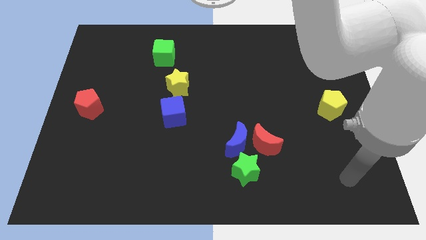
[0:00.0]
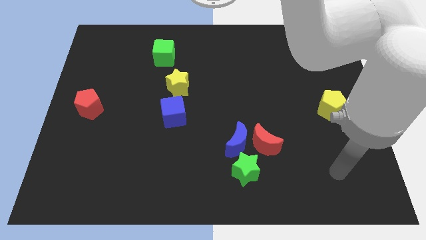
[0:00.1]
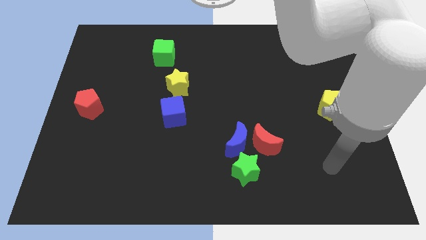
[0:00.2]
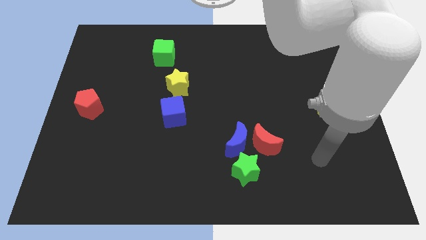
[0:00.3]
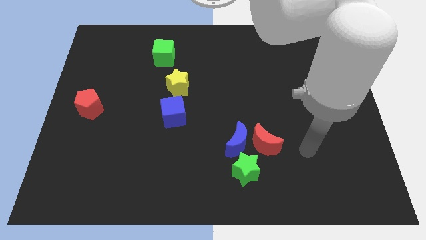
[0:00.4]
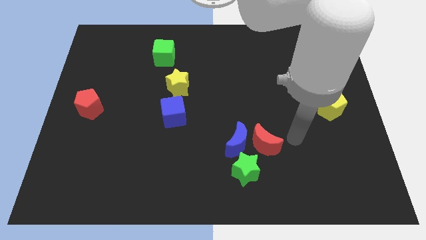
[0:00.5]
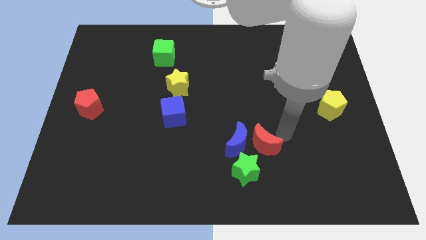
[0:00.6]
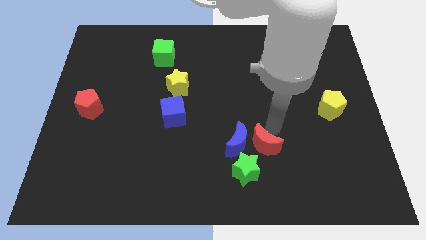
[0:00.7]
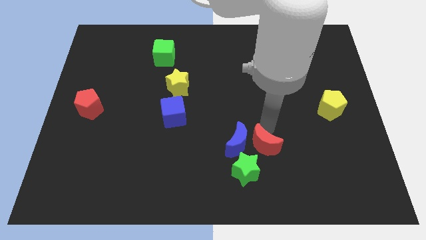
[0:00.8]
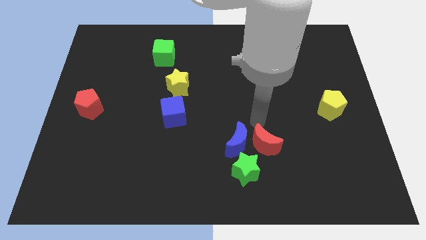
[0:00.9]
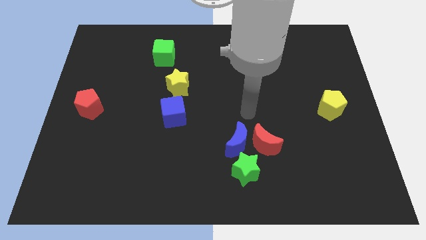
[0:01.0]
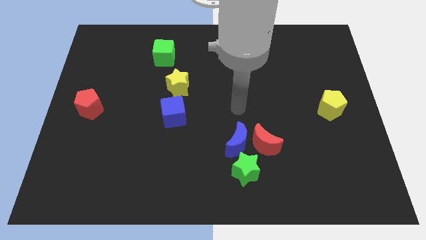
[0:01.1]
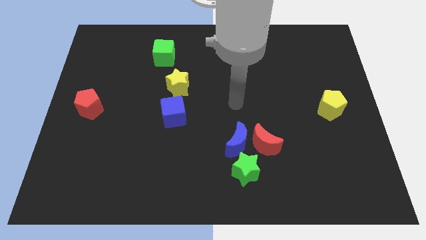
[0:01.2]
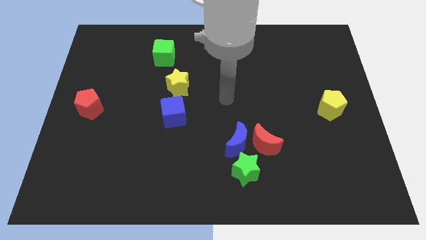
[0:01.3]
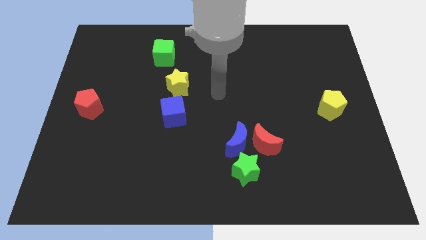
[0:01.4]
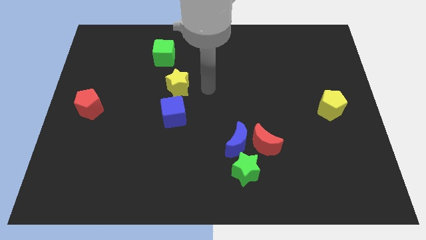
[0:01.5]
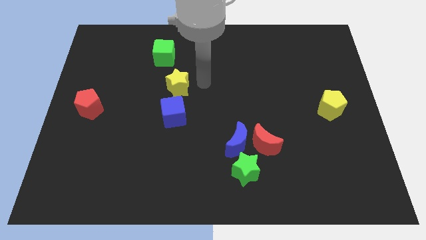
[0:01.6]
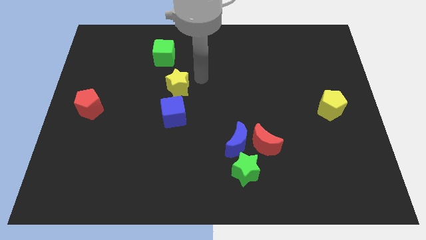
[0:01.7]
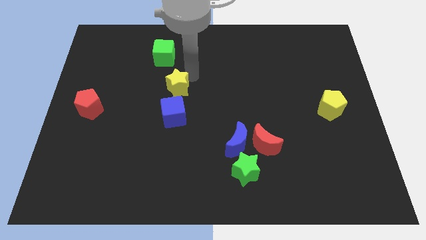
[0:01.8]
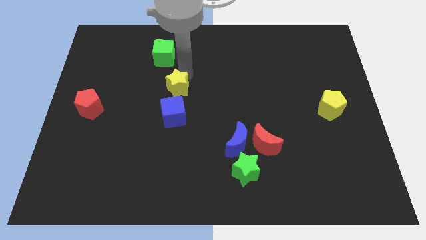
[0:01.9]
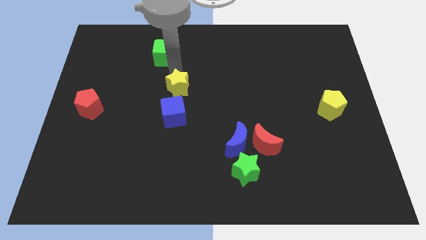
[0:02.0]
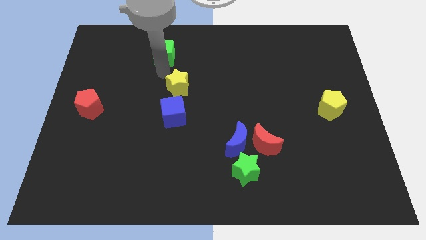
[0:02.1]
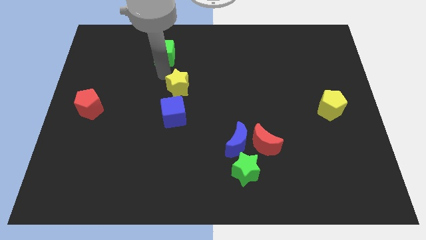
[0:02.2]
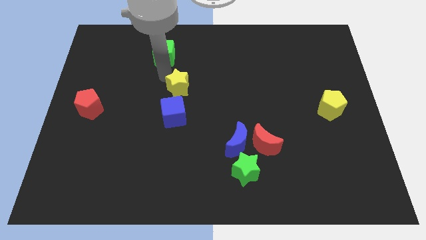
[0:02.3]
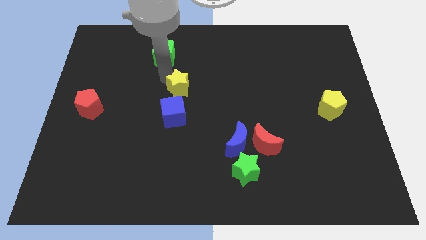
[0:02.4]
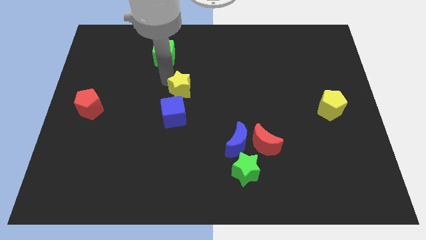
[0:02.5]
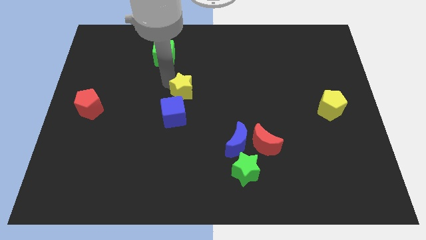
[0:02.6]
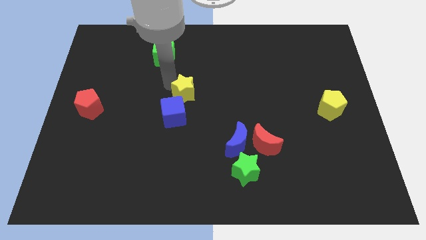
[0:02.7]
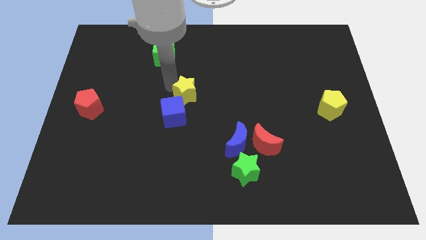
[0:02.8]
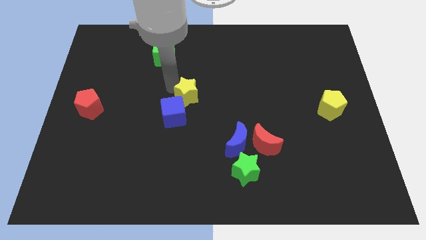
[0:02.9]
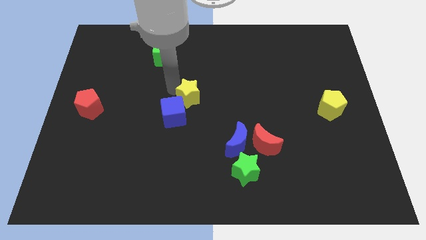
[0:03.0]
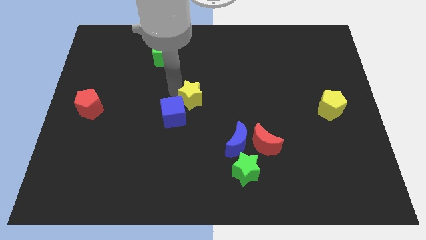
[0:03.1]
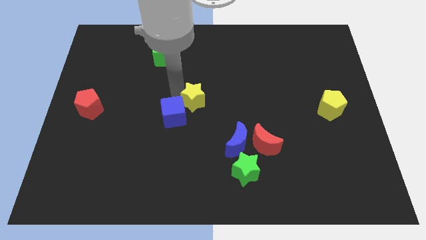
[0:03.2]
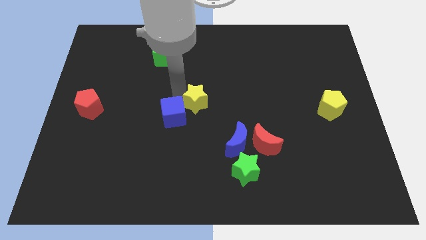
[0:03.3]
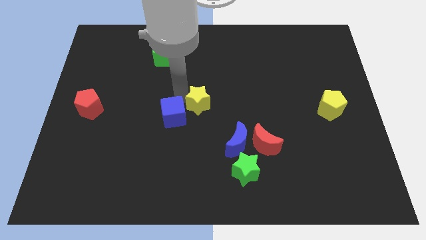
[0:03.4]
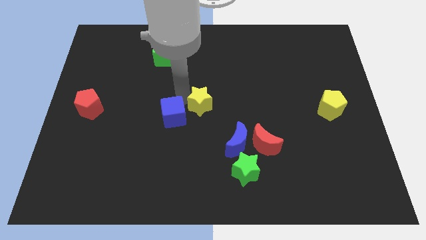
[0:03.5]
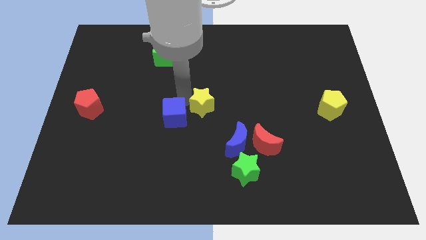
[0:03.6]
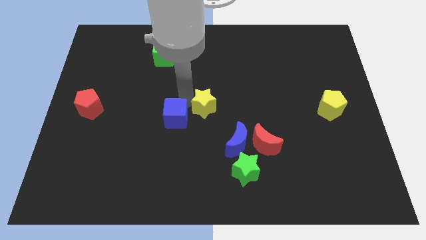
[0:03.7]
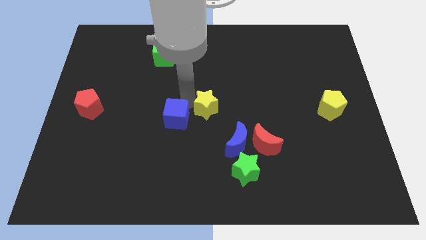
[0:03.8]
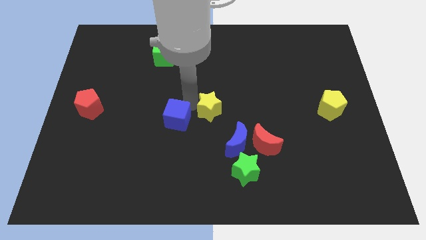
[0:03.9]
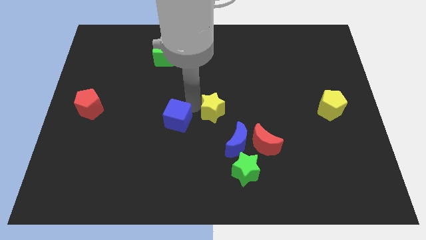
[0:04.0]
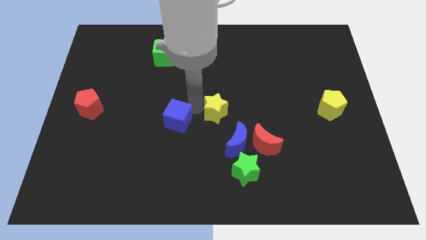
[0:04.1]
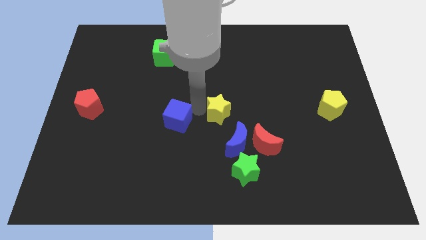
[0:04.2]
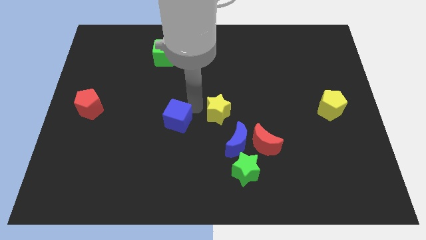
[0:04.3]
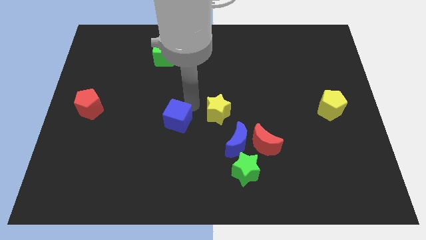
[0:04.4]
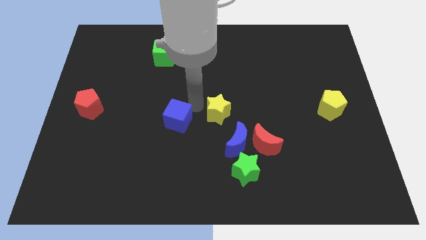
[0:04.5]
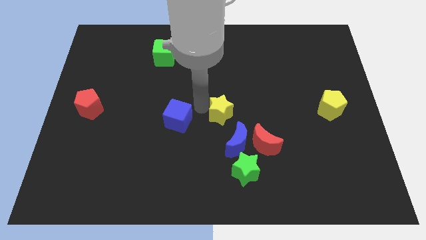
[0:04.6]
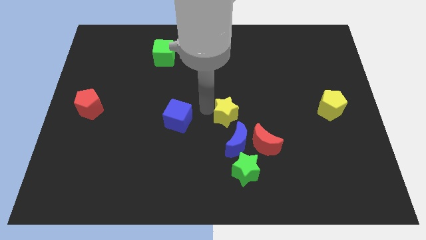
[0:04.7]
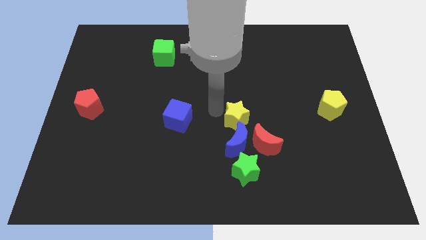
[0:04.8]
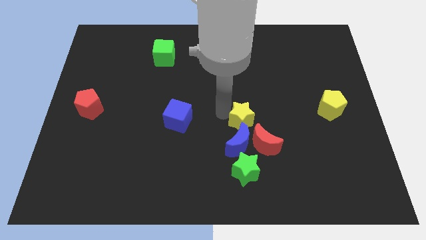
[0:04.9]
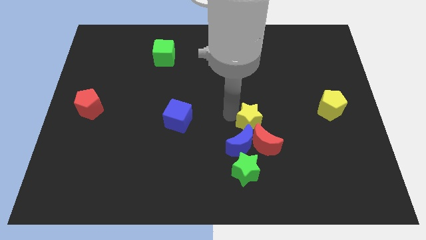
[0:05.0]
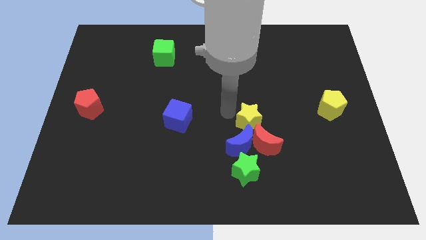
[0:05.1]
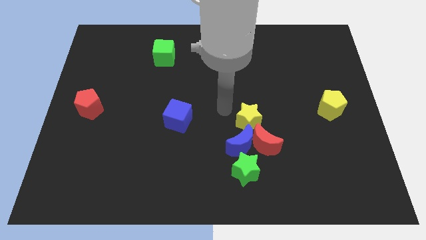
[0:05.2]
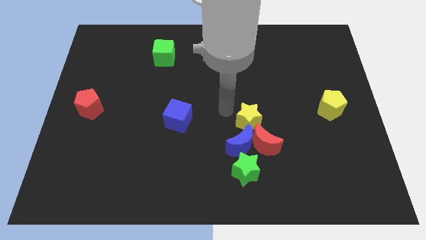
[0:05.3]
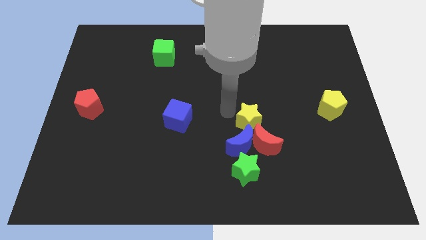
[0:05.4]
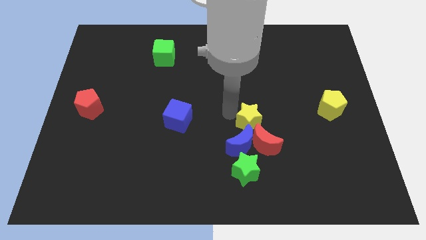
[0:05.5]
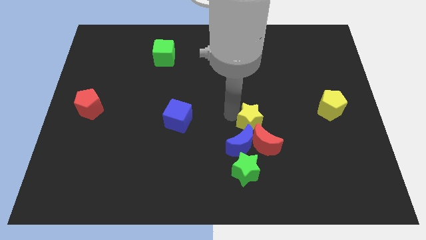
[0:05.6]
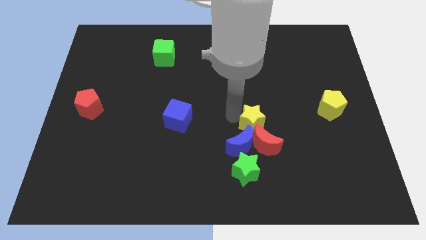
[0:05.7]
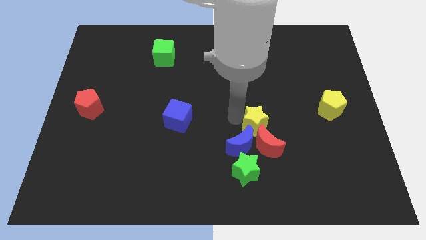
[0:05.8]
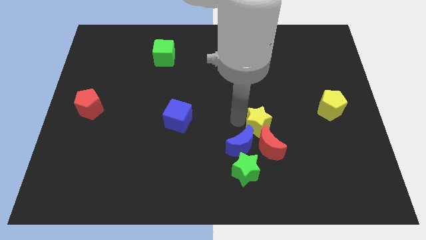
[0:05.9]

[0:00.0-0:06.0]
move the yellow star down and right diagonally

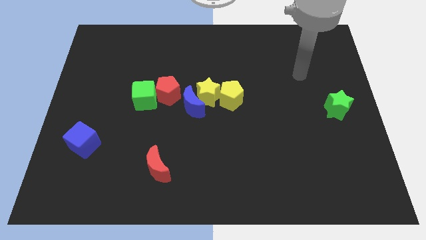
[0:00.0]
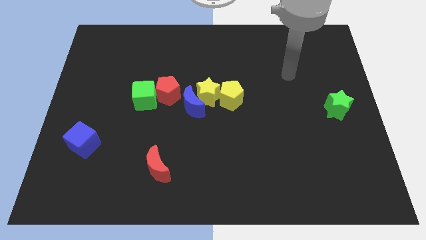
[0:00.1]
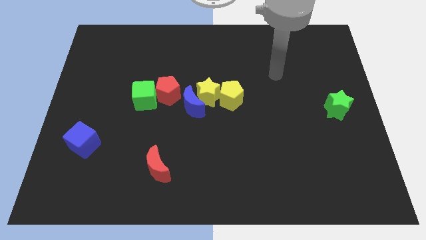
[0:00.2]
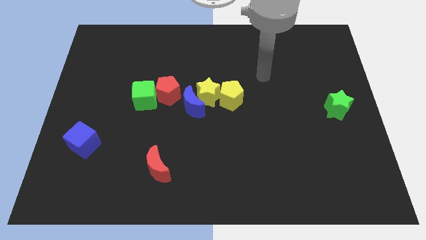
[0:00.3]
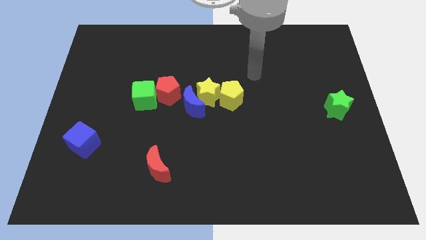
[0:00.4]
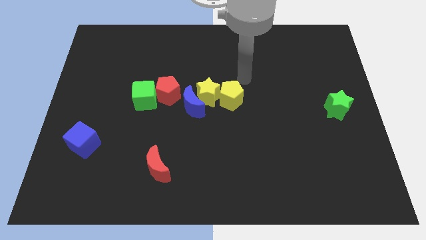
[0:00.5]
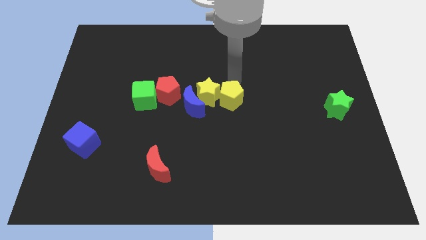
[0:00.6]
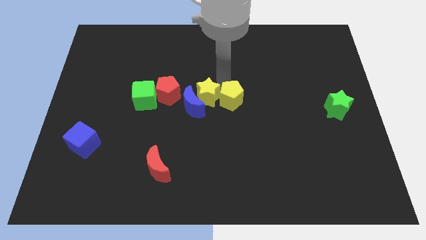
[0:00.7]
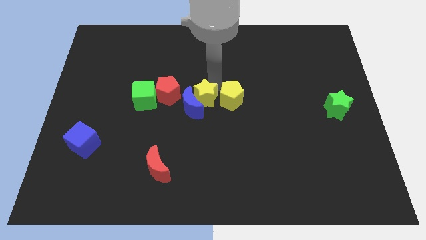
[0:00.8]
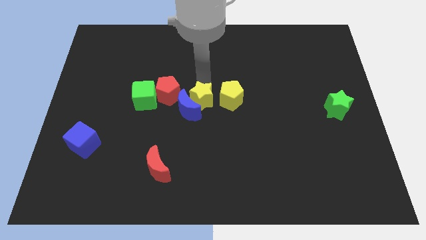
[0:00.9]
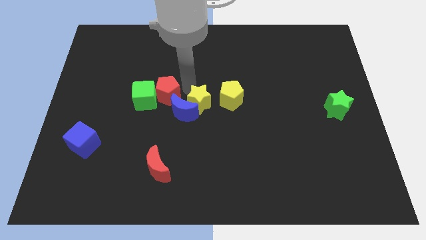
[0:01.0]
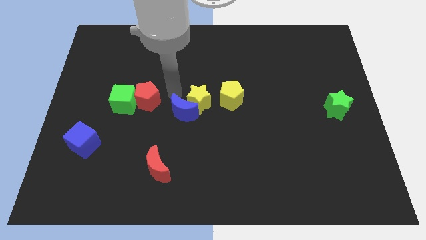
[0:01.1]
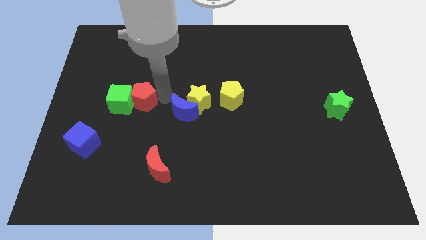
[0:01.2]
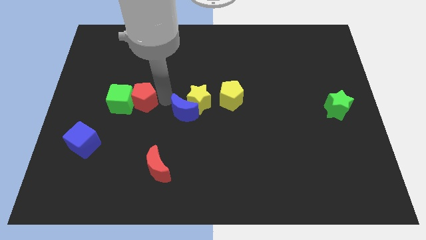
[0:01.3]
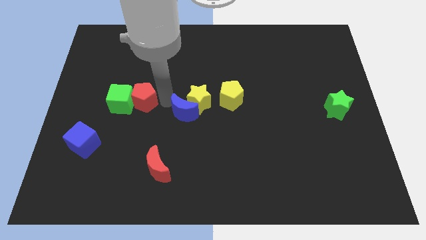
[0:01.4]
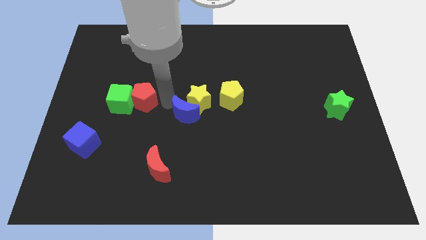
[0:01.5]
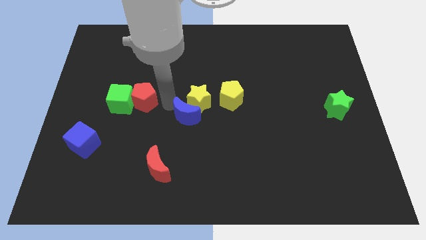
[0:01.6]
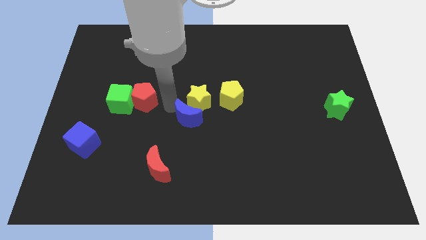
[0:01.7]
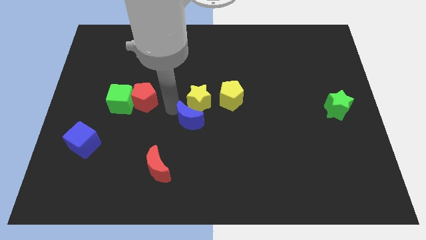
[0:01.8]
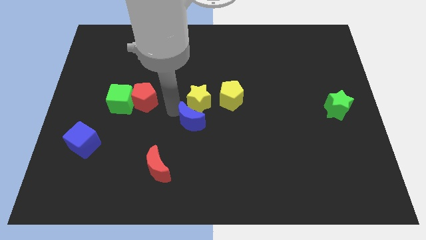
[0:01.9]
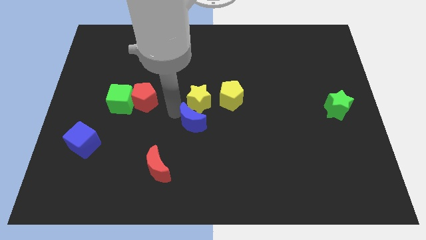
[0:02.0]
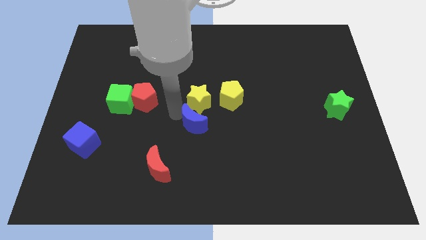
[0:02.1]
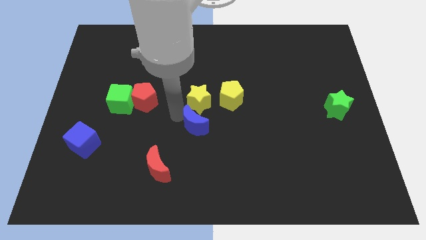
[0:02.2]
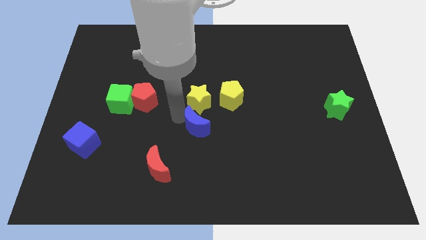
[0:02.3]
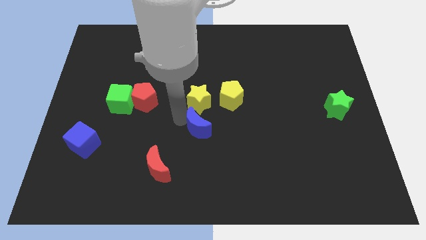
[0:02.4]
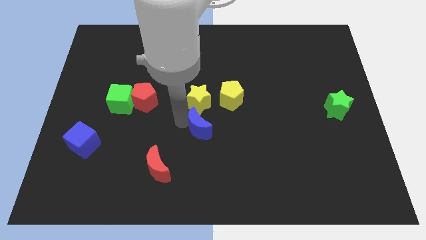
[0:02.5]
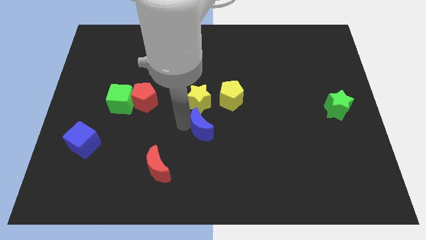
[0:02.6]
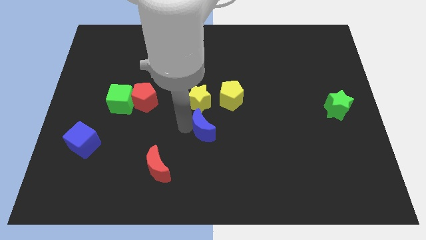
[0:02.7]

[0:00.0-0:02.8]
slightly push the blue moon down
